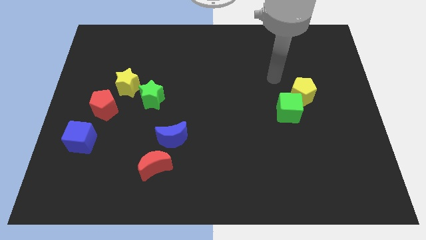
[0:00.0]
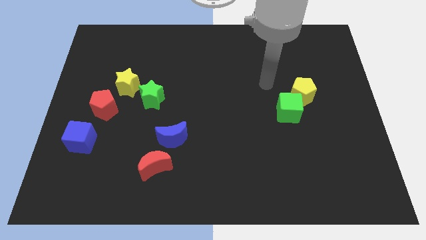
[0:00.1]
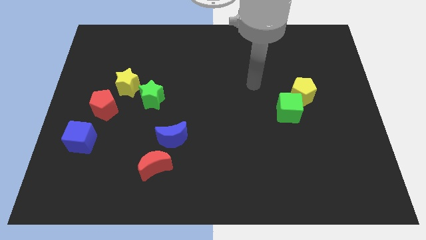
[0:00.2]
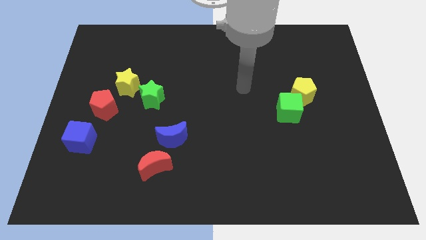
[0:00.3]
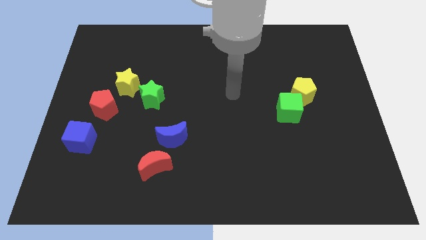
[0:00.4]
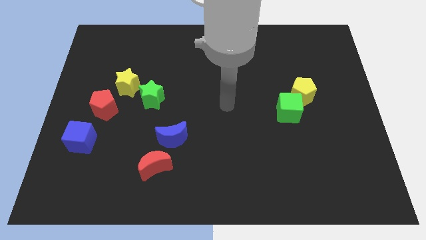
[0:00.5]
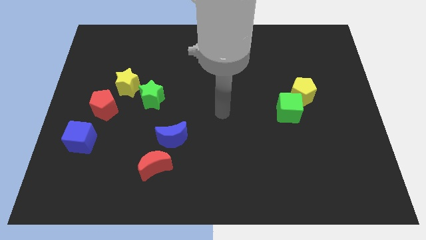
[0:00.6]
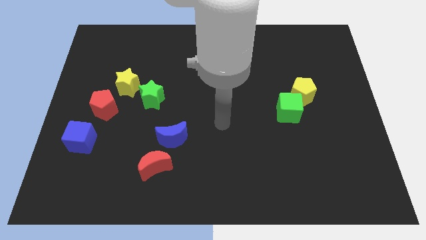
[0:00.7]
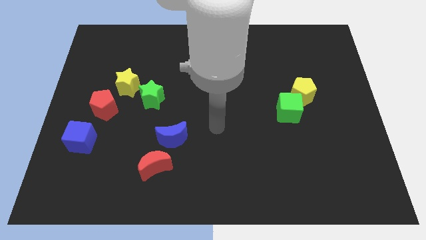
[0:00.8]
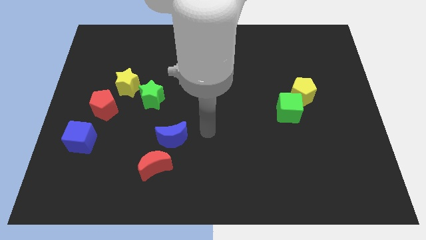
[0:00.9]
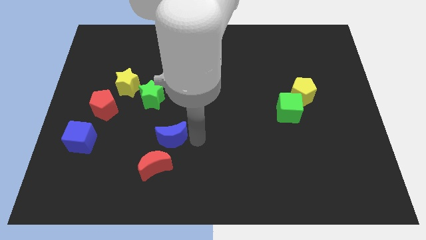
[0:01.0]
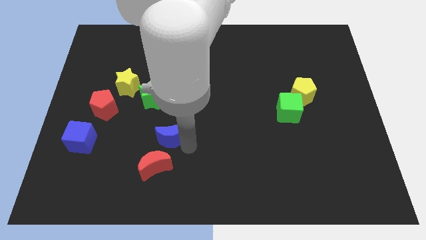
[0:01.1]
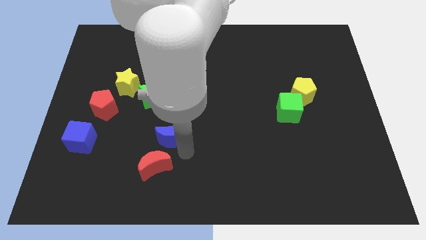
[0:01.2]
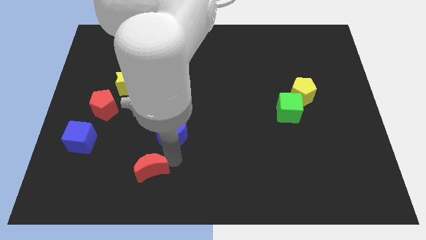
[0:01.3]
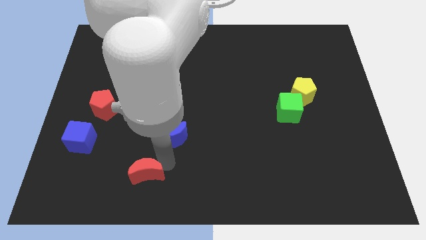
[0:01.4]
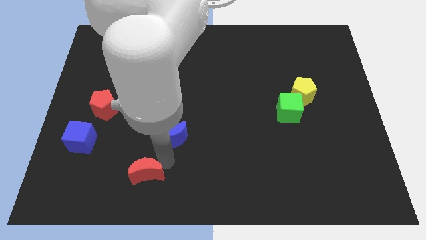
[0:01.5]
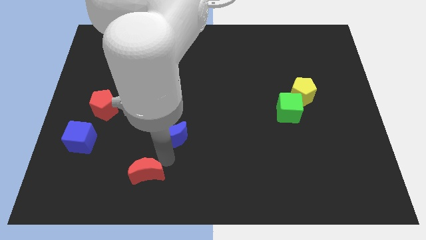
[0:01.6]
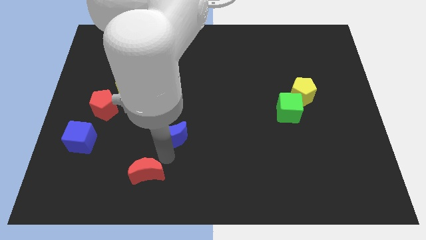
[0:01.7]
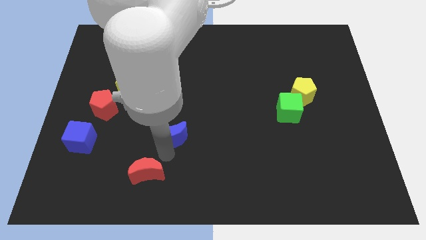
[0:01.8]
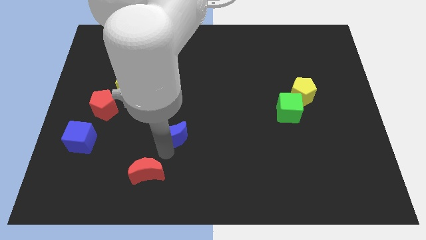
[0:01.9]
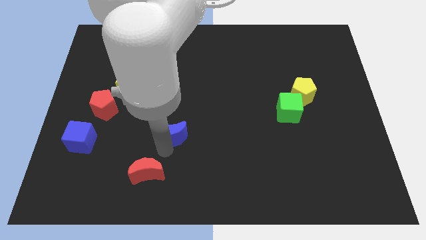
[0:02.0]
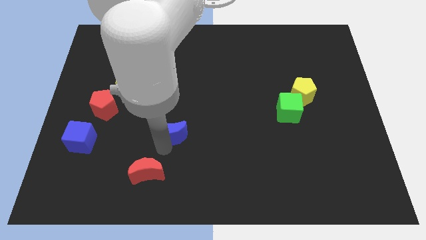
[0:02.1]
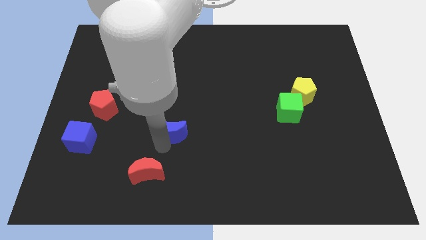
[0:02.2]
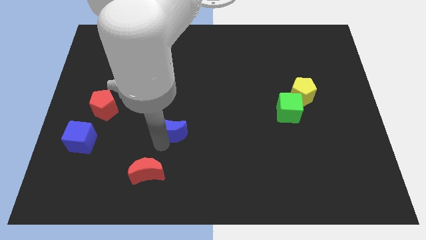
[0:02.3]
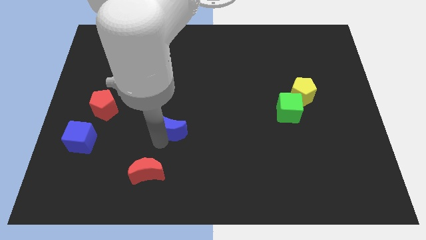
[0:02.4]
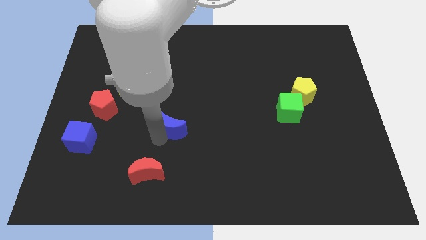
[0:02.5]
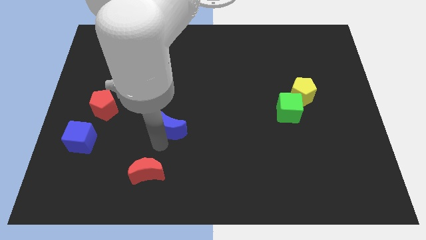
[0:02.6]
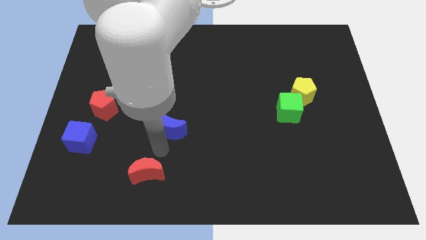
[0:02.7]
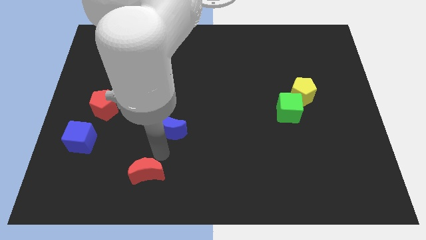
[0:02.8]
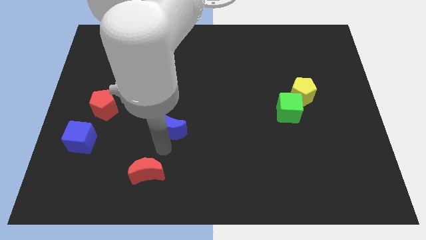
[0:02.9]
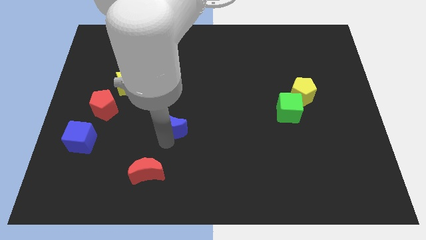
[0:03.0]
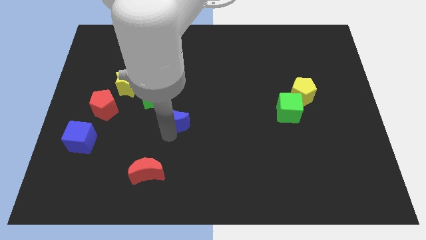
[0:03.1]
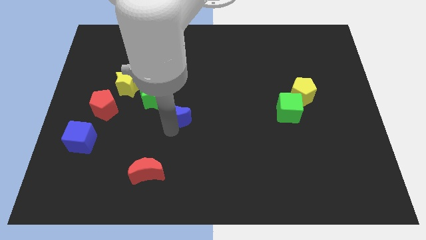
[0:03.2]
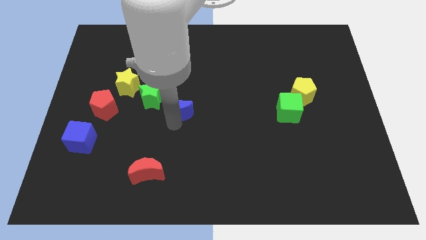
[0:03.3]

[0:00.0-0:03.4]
push the blue moon up somewhat

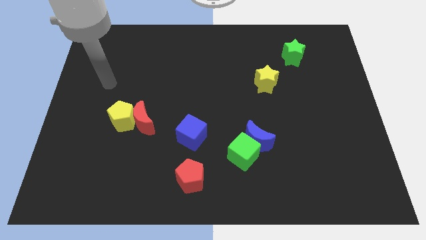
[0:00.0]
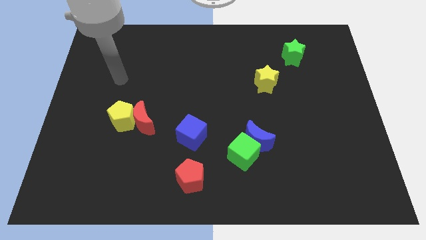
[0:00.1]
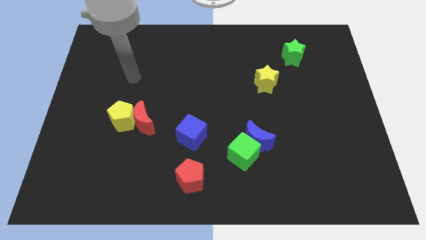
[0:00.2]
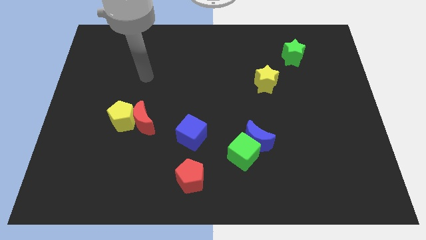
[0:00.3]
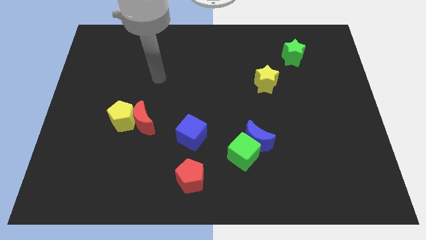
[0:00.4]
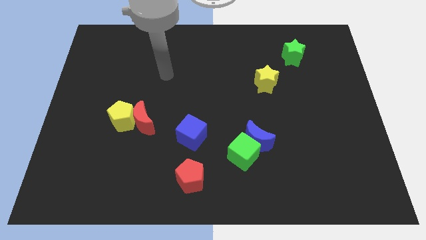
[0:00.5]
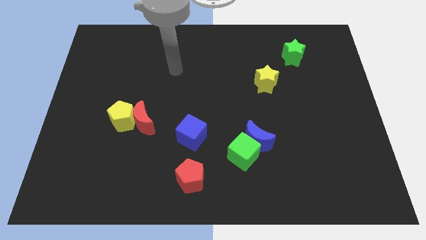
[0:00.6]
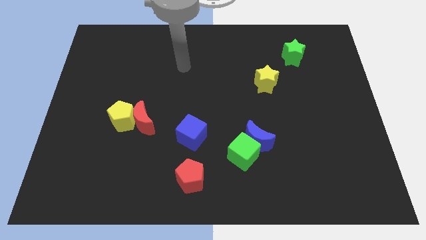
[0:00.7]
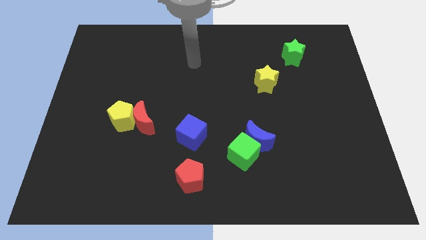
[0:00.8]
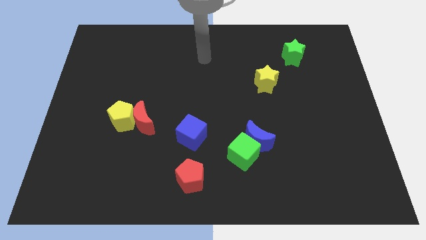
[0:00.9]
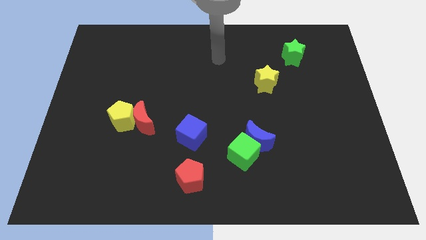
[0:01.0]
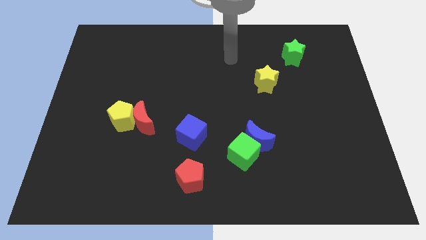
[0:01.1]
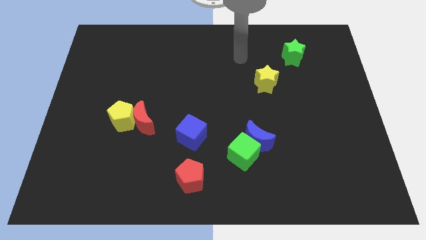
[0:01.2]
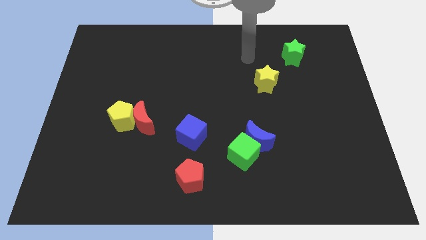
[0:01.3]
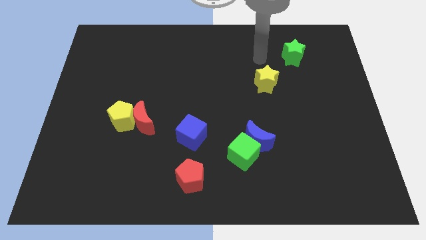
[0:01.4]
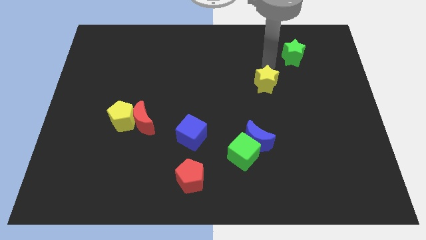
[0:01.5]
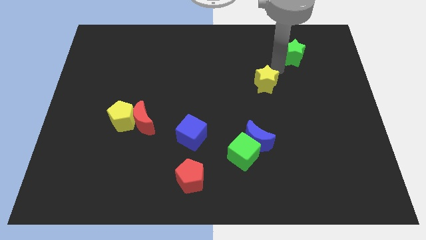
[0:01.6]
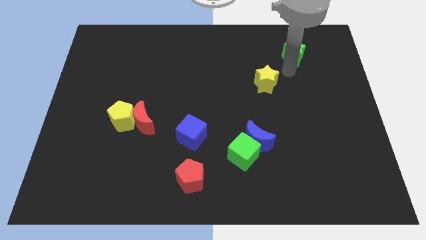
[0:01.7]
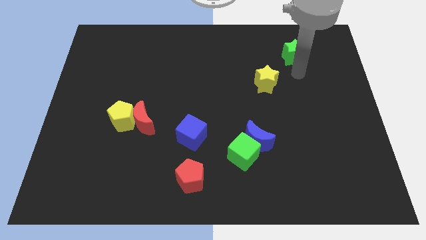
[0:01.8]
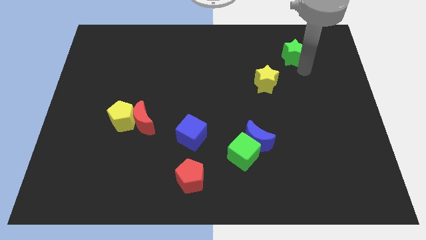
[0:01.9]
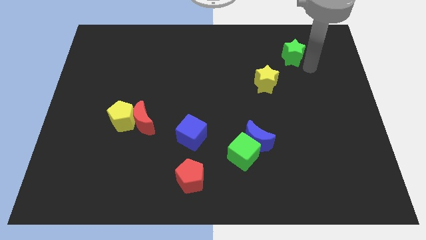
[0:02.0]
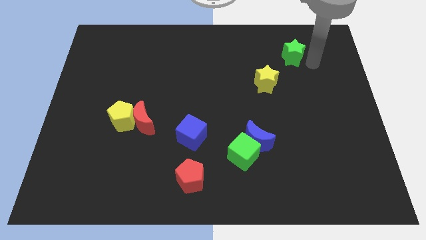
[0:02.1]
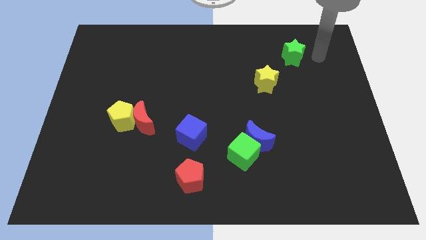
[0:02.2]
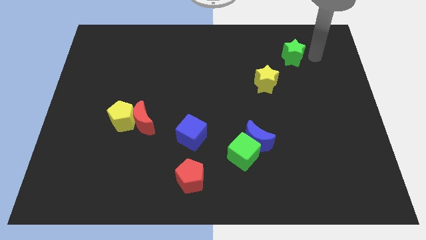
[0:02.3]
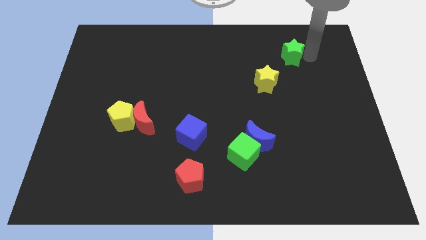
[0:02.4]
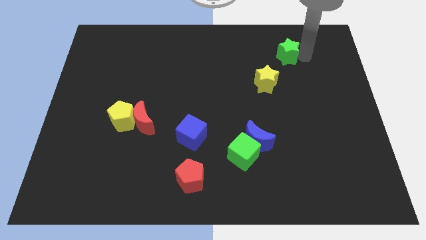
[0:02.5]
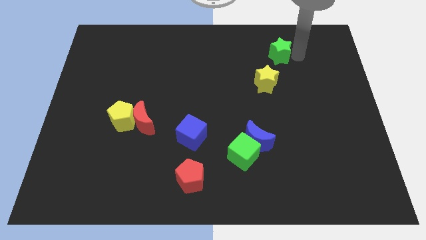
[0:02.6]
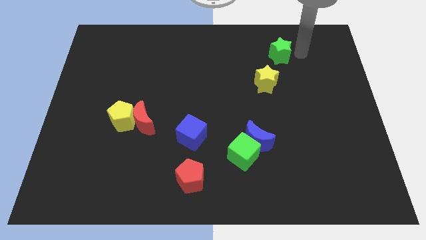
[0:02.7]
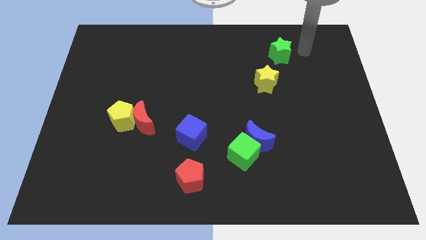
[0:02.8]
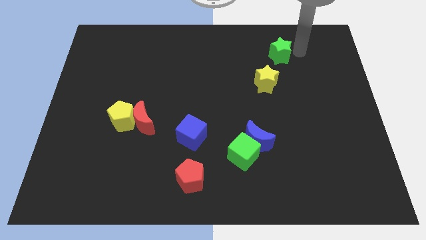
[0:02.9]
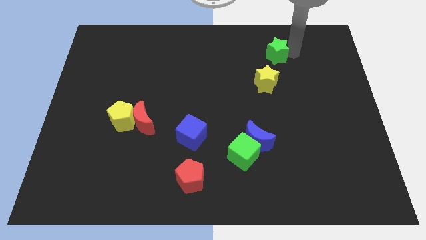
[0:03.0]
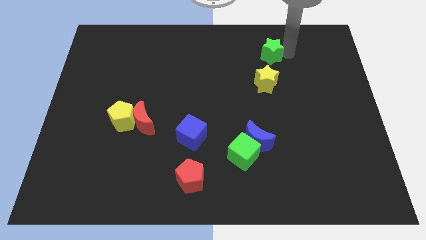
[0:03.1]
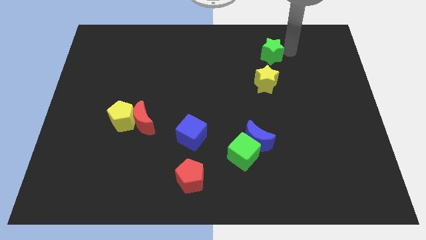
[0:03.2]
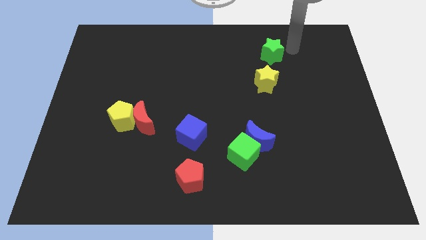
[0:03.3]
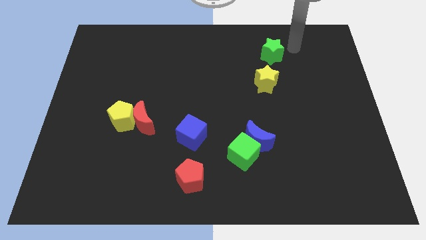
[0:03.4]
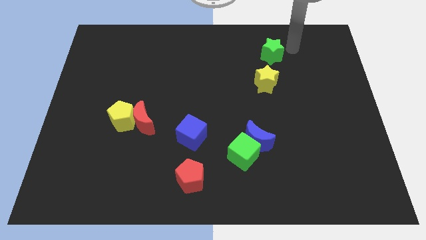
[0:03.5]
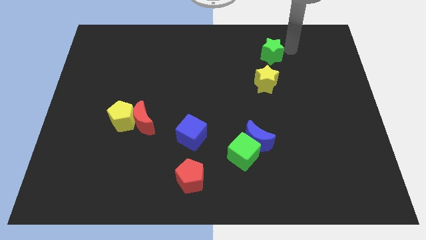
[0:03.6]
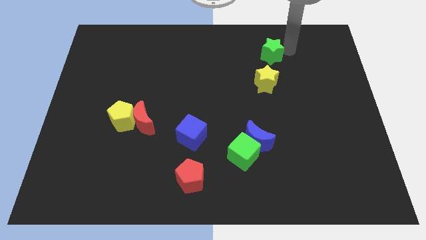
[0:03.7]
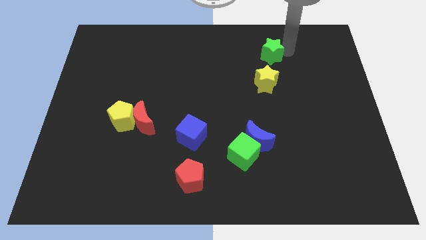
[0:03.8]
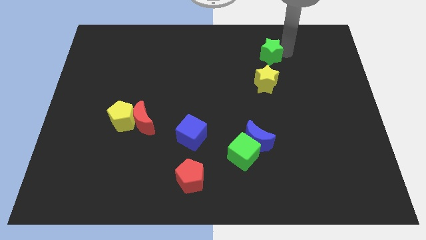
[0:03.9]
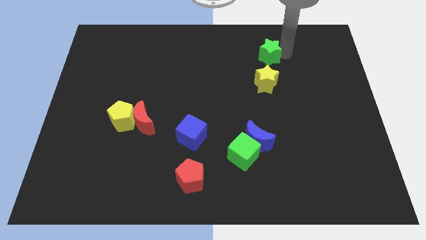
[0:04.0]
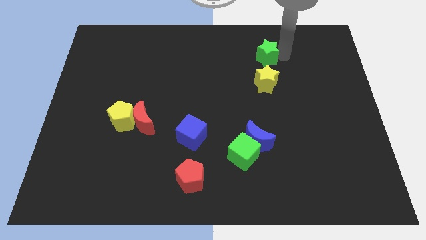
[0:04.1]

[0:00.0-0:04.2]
slightly push the green star left
